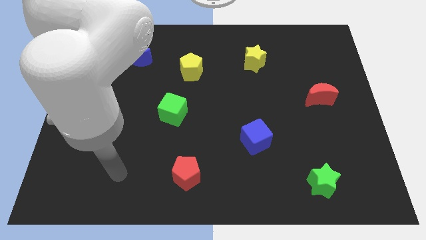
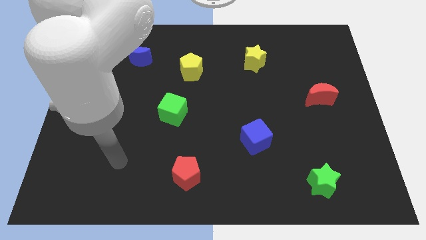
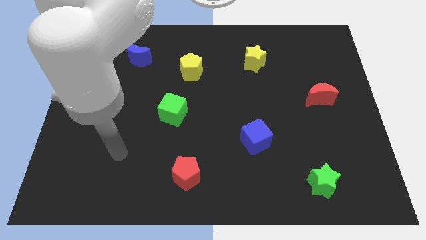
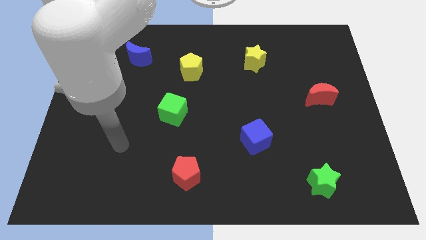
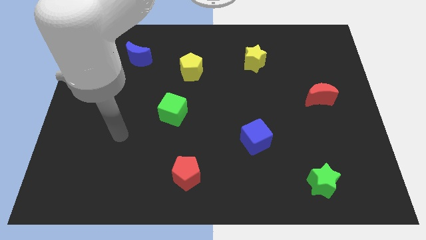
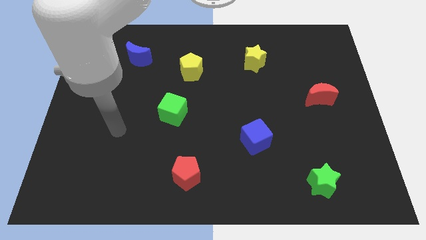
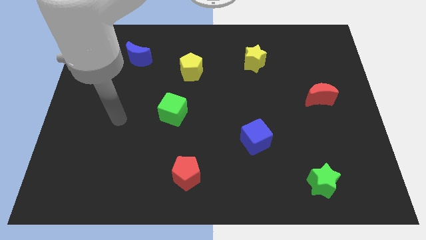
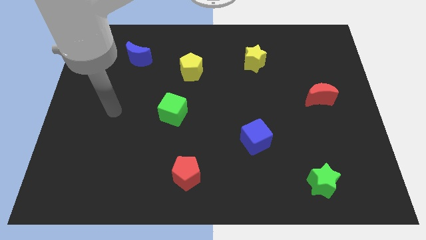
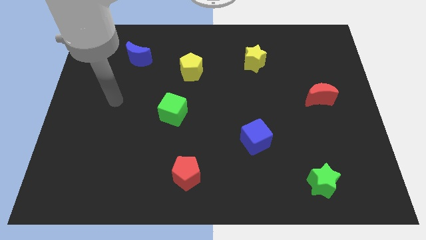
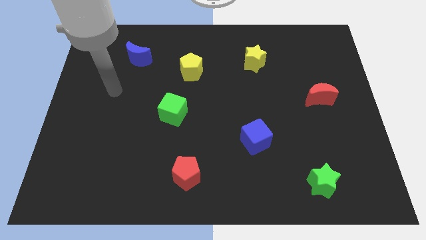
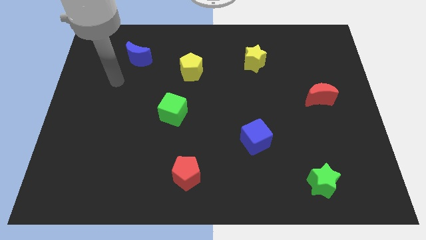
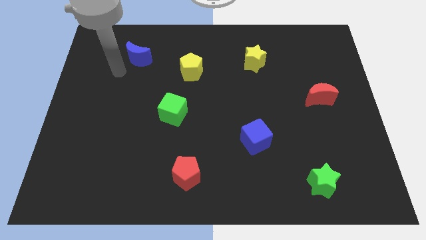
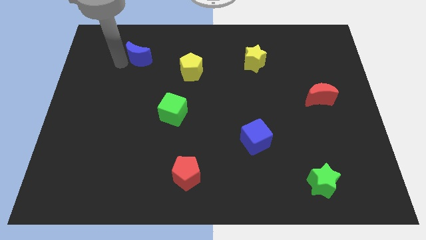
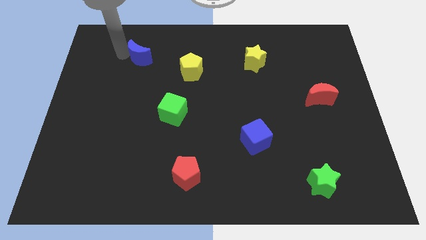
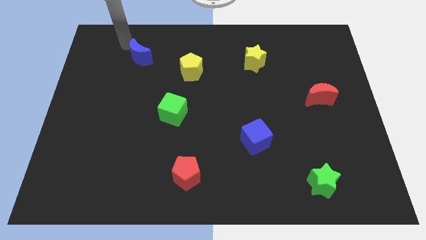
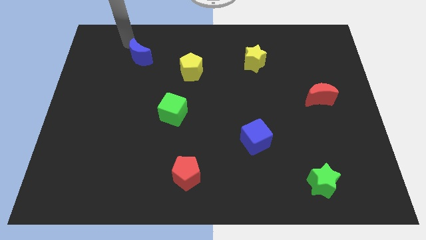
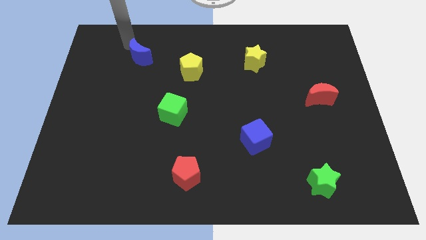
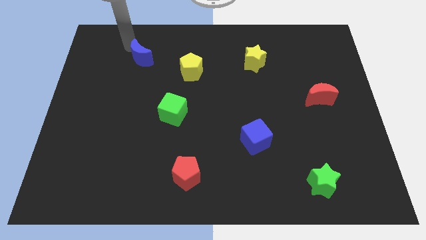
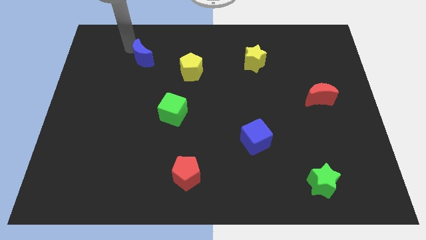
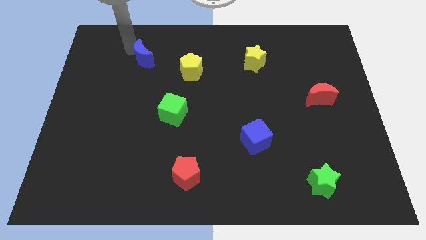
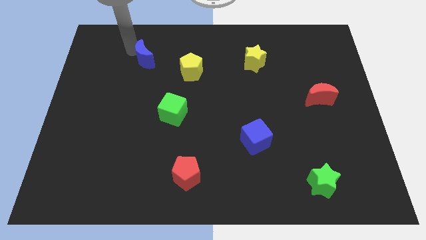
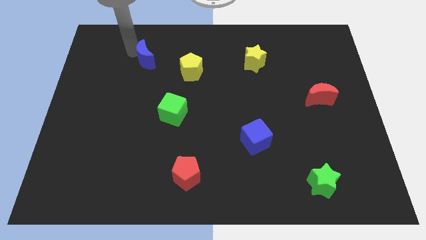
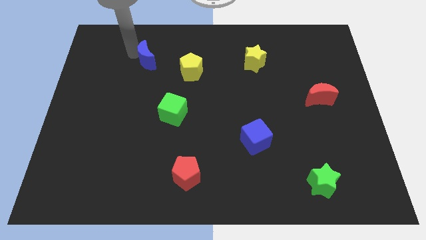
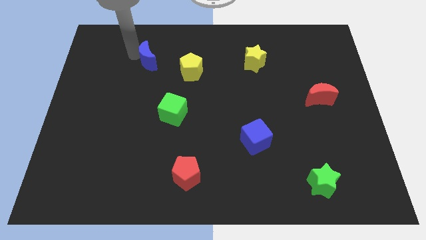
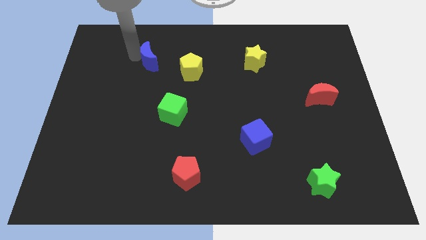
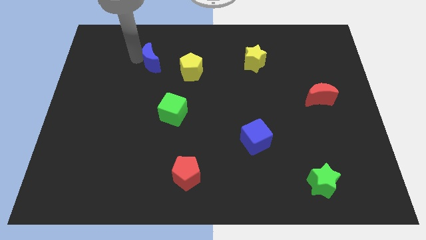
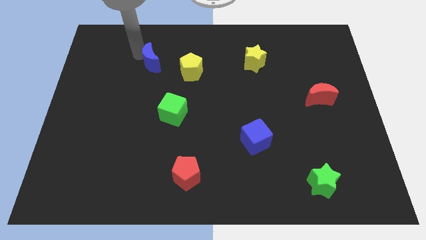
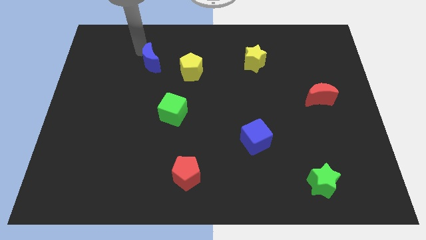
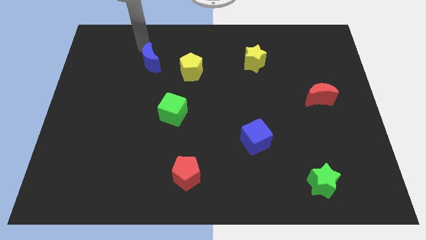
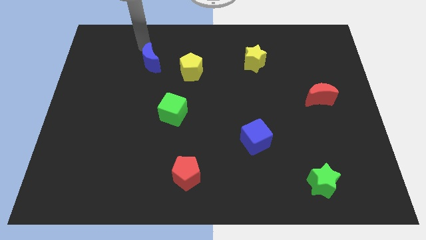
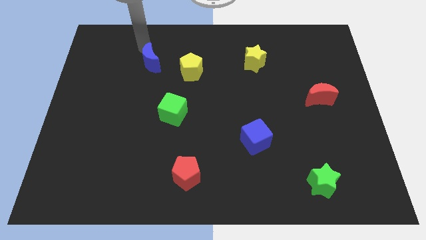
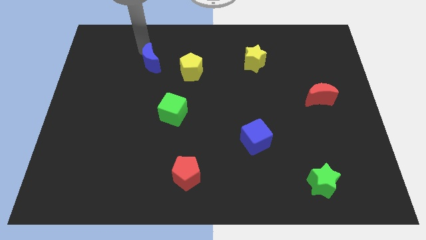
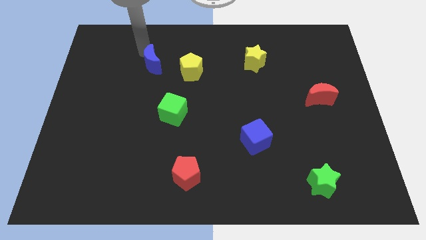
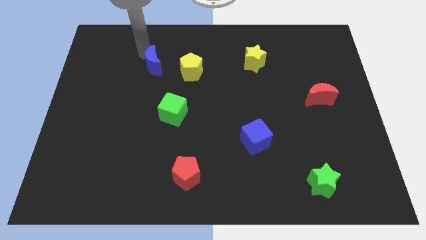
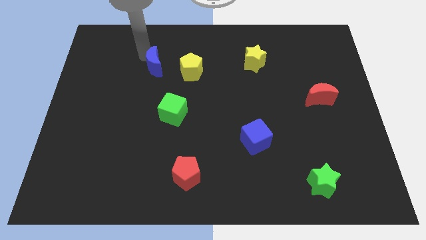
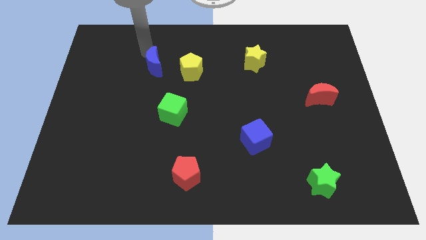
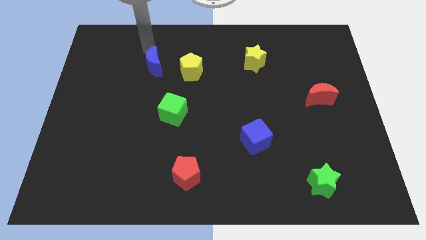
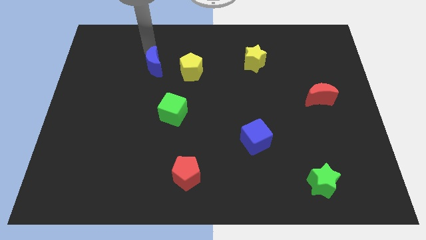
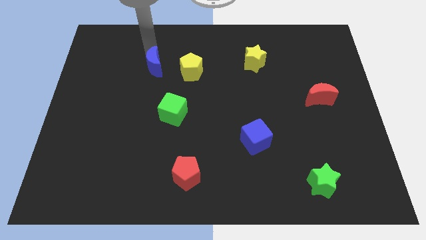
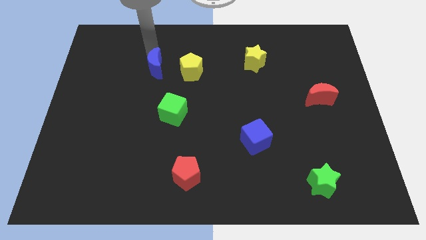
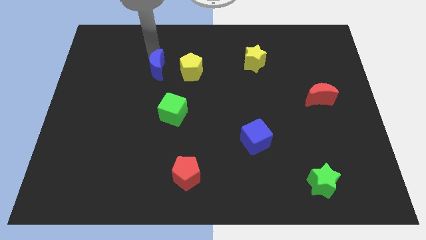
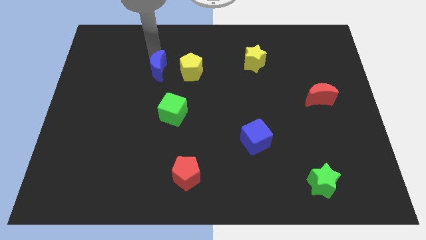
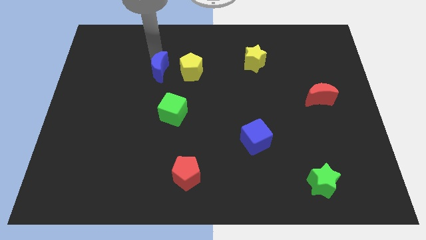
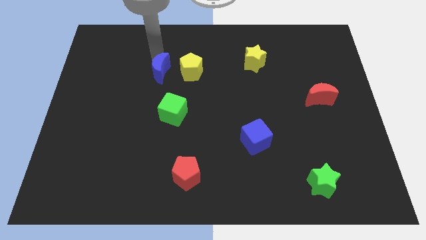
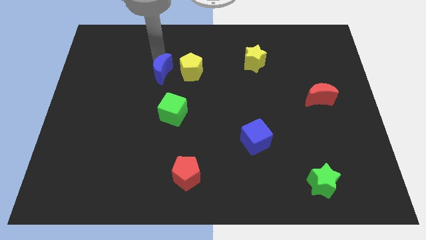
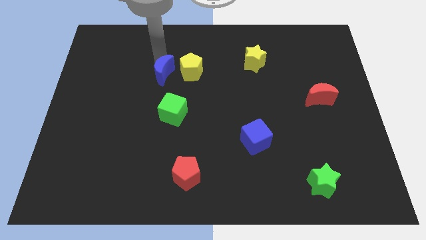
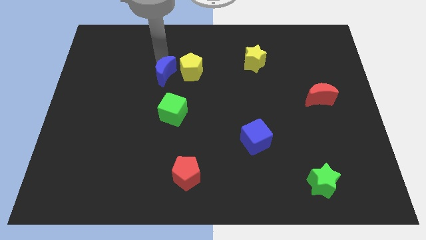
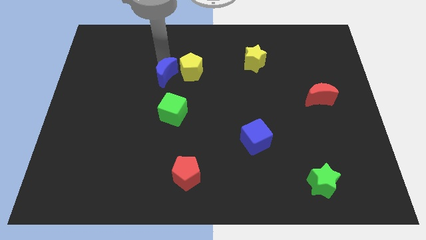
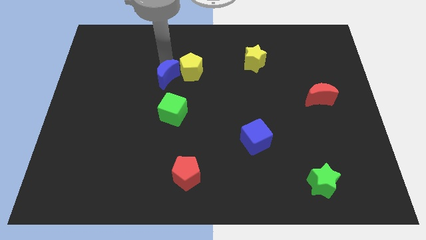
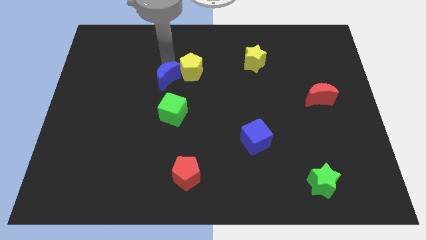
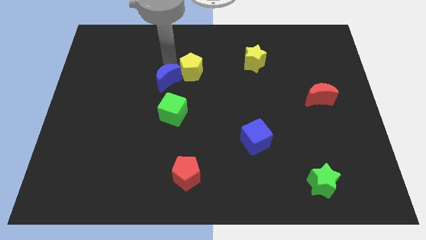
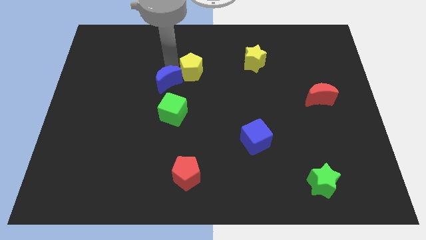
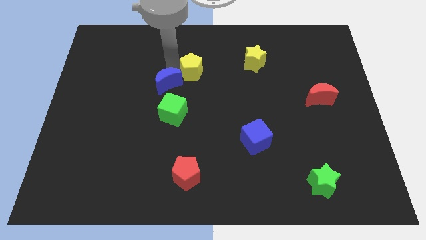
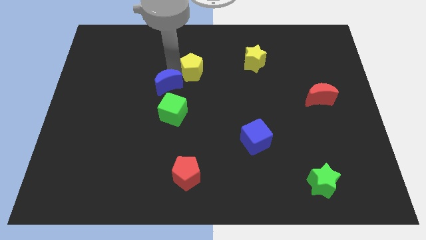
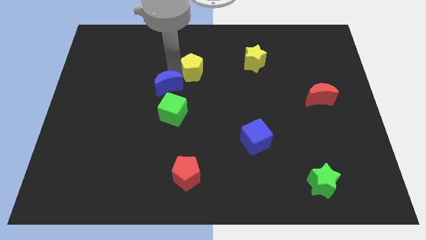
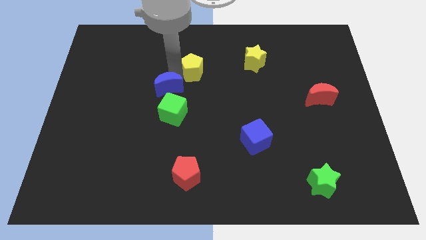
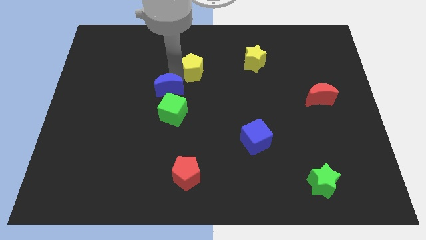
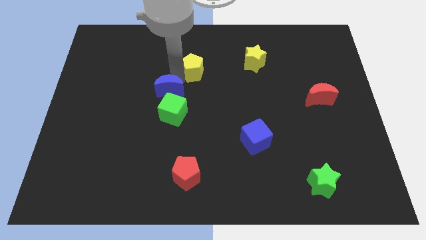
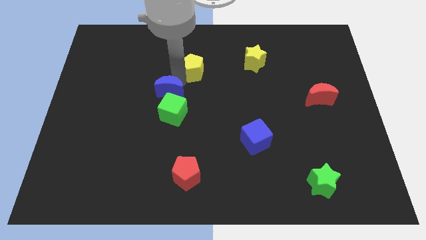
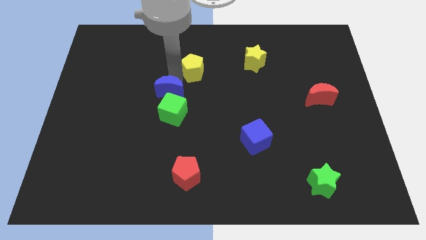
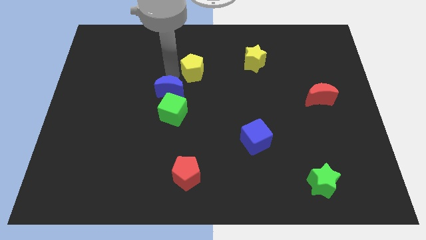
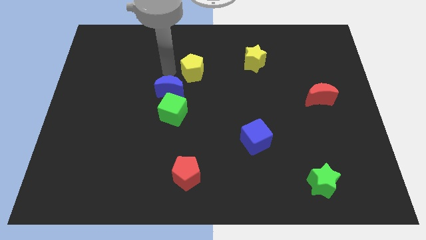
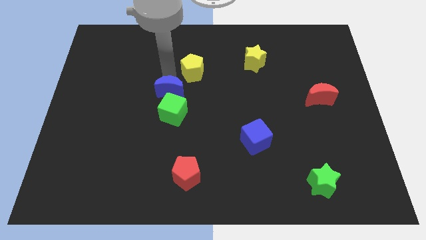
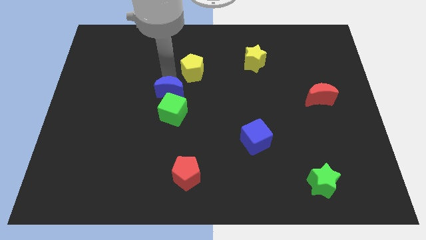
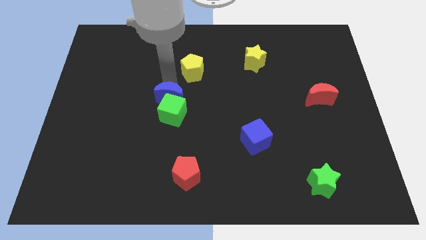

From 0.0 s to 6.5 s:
push the blue moon next to the green cube

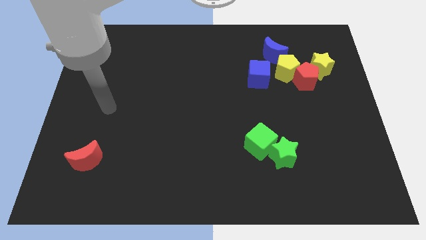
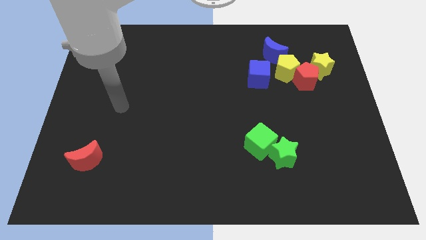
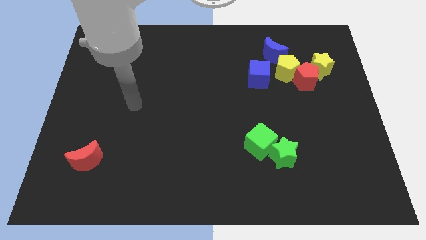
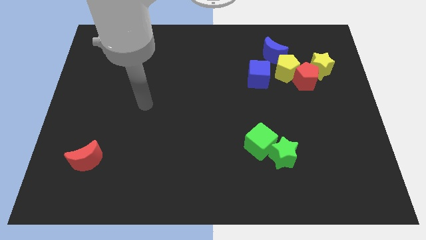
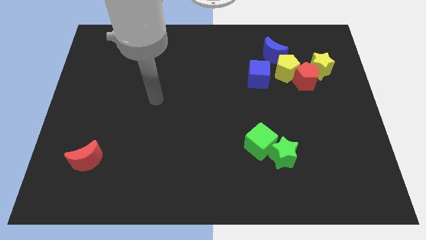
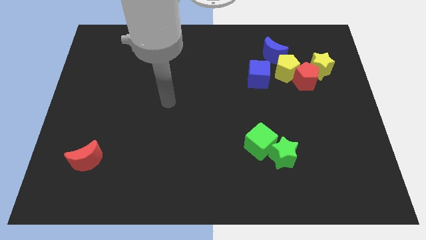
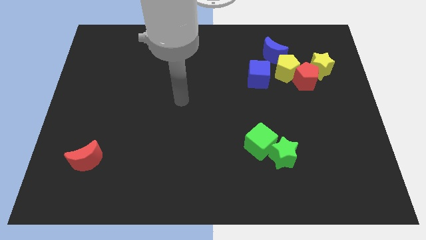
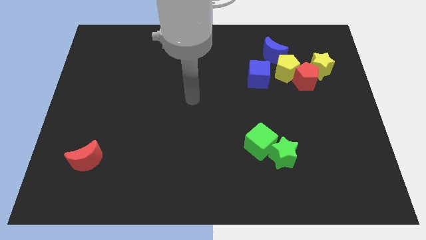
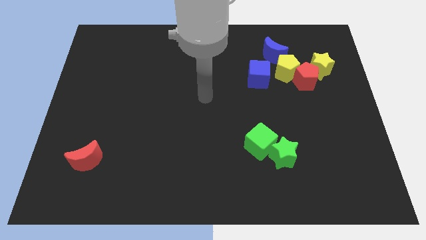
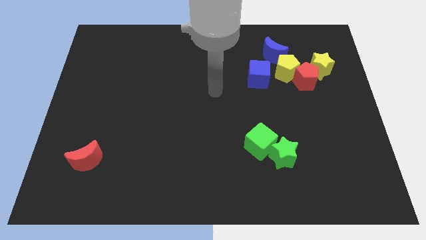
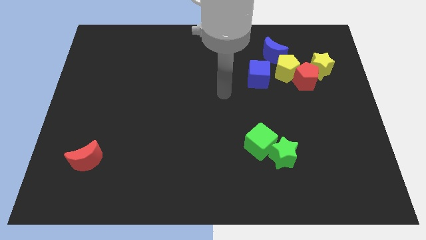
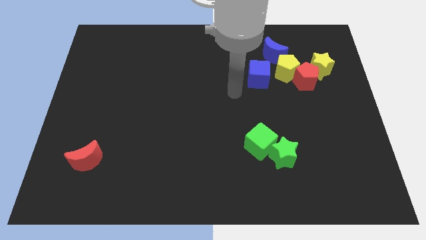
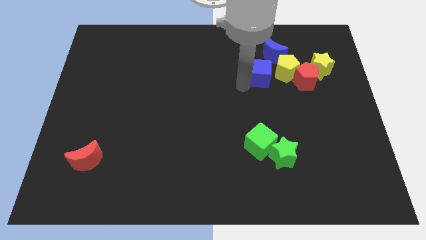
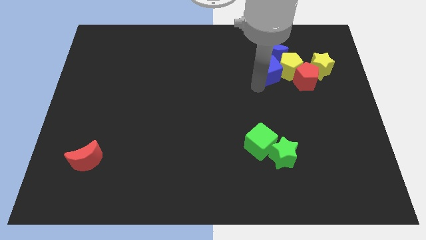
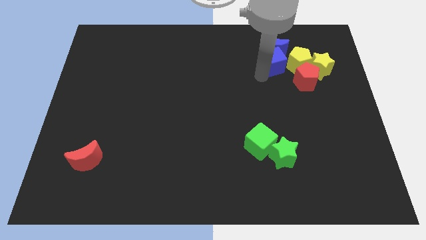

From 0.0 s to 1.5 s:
move the yellow pentagon to the yellow star

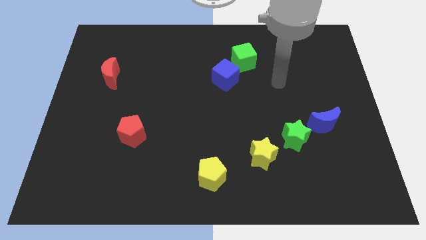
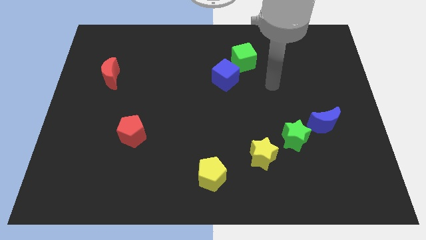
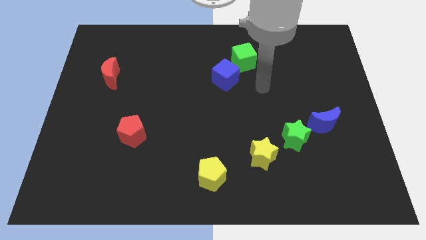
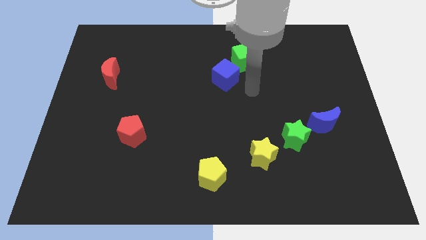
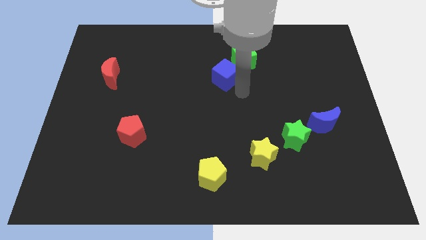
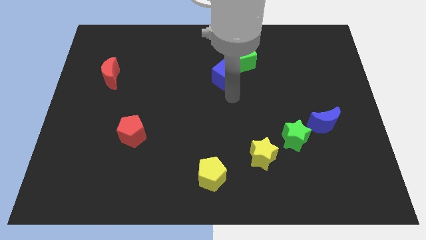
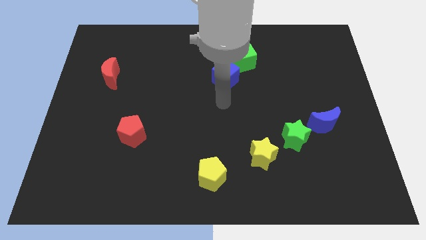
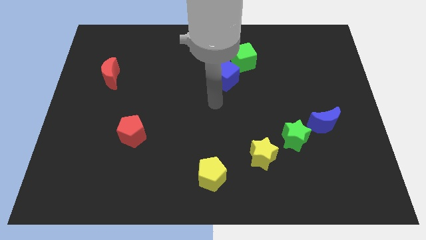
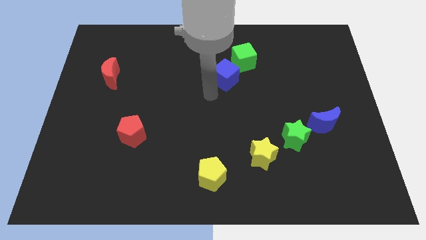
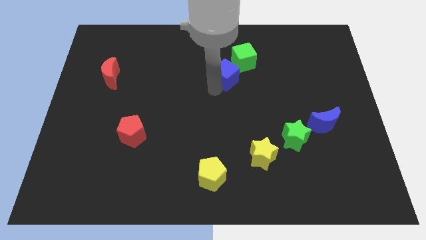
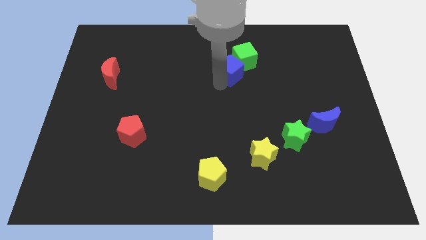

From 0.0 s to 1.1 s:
push the blue cube next to the green cube
